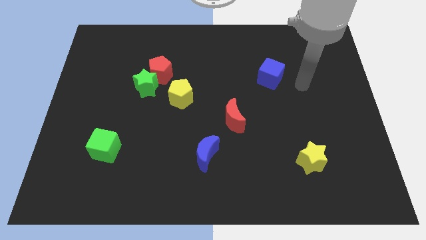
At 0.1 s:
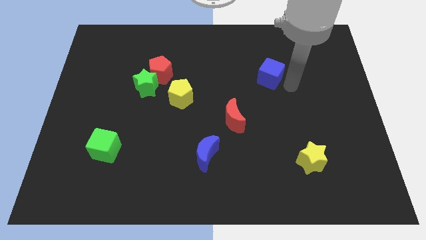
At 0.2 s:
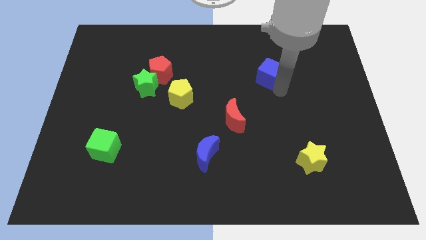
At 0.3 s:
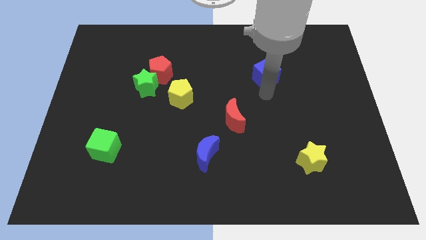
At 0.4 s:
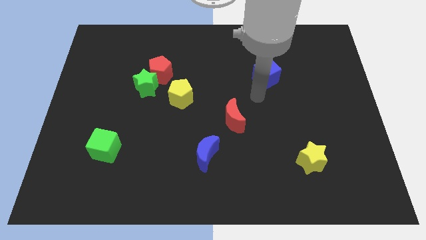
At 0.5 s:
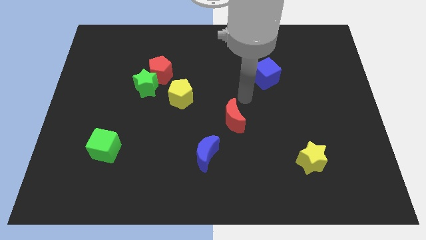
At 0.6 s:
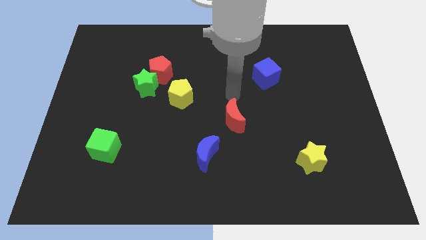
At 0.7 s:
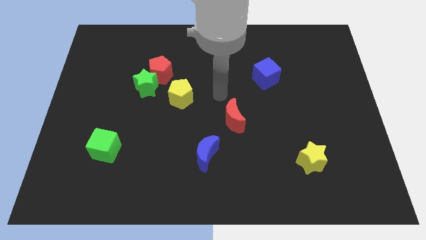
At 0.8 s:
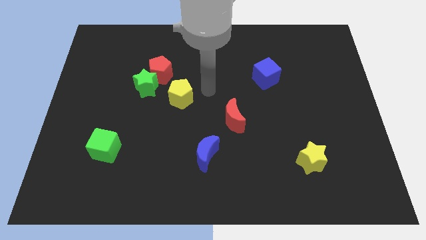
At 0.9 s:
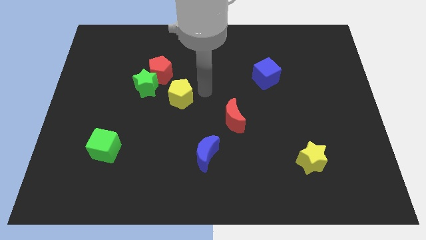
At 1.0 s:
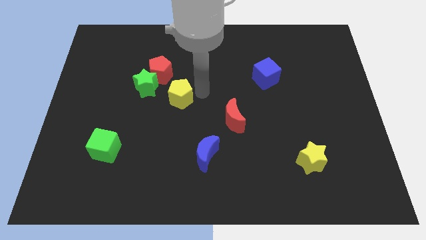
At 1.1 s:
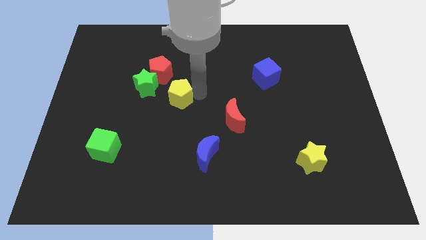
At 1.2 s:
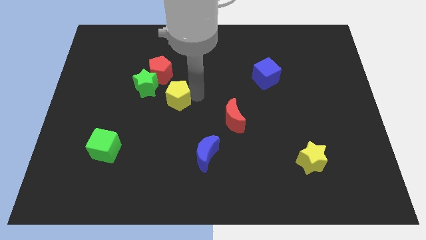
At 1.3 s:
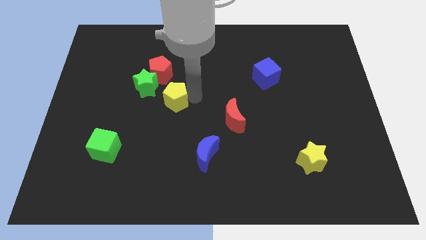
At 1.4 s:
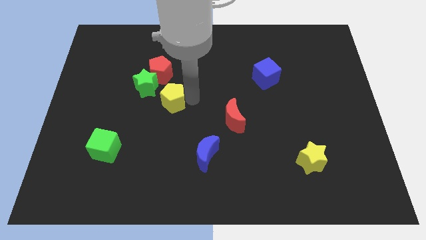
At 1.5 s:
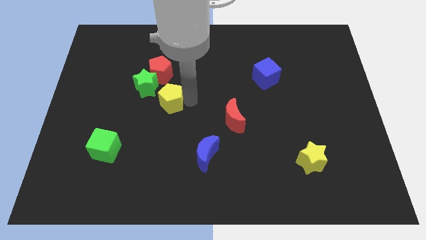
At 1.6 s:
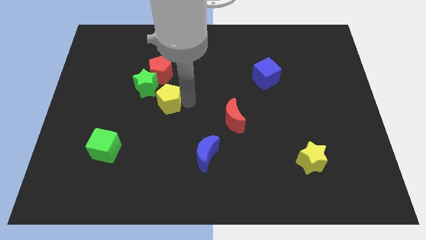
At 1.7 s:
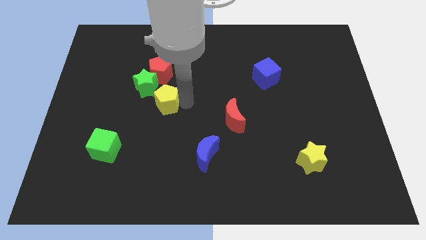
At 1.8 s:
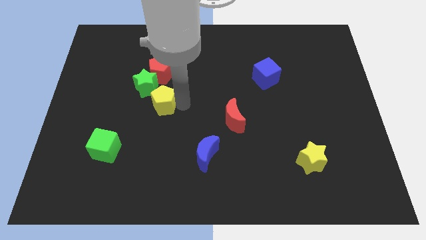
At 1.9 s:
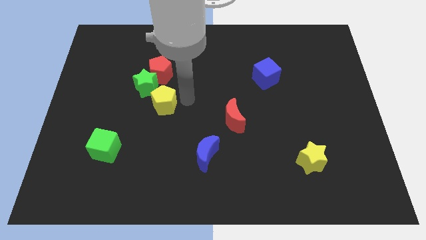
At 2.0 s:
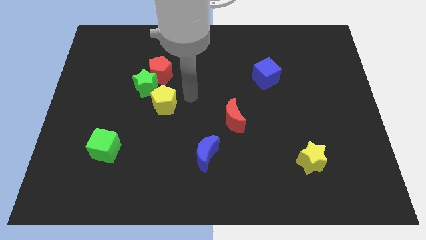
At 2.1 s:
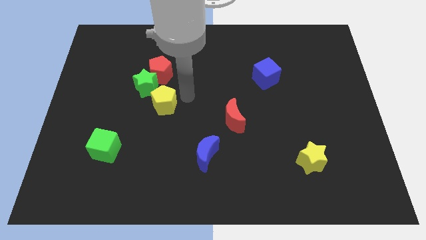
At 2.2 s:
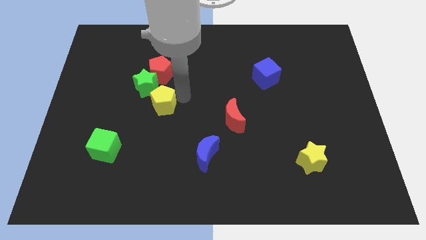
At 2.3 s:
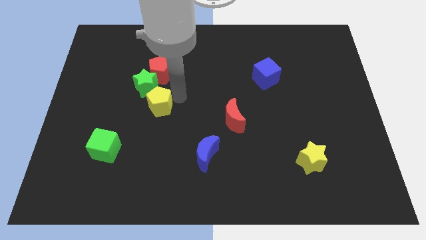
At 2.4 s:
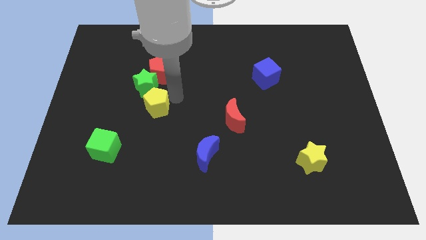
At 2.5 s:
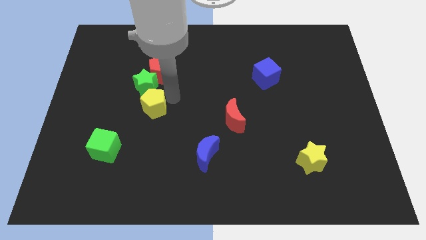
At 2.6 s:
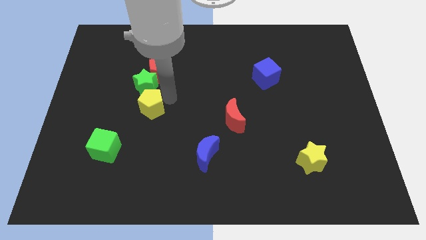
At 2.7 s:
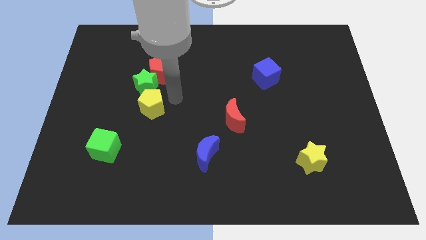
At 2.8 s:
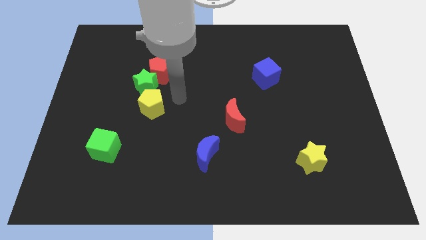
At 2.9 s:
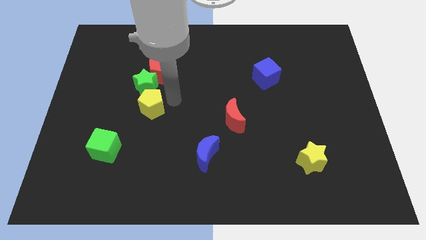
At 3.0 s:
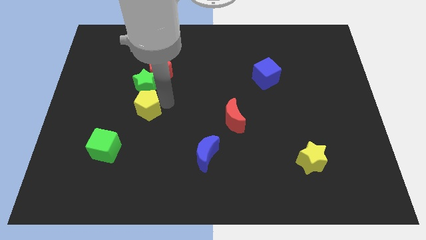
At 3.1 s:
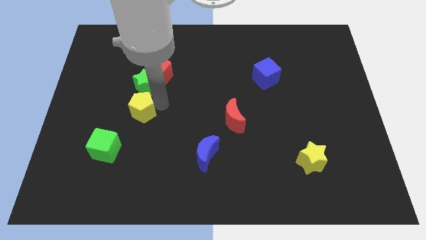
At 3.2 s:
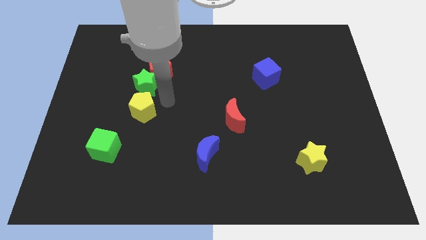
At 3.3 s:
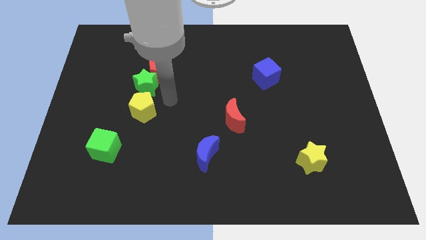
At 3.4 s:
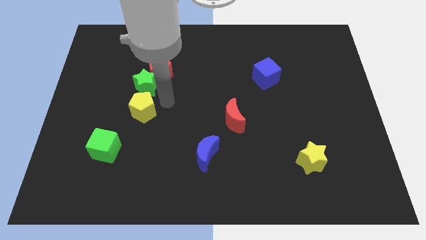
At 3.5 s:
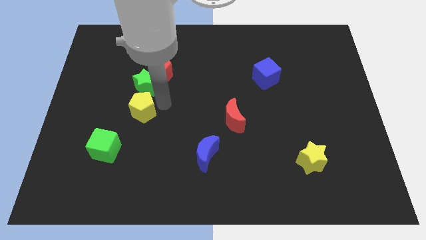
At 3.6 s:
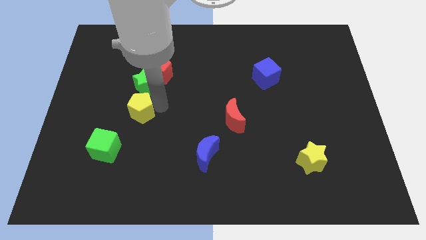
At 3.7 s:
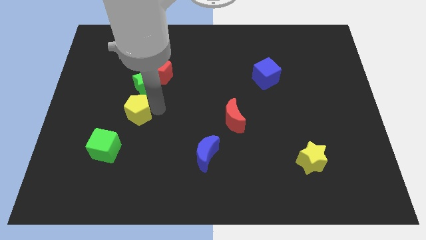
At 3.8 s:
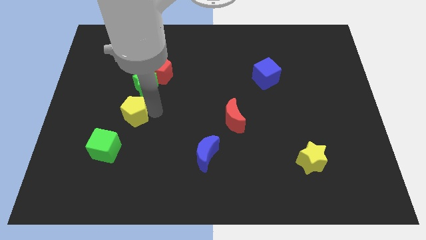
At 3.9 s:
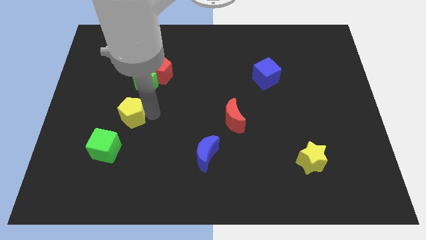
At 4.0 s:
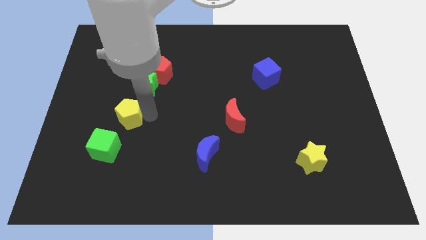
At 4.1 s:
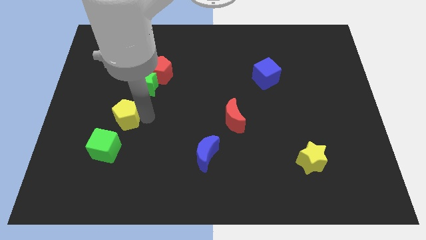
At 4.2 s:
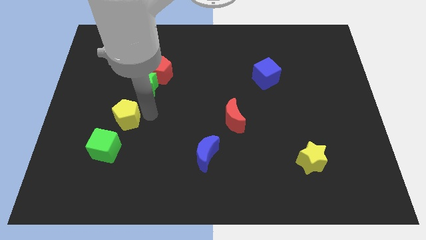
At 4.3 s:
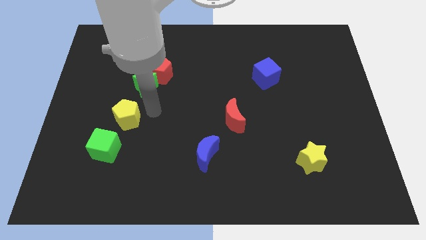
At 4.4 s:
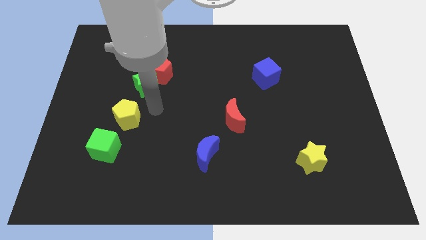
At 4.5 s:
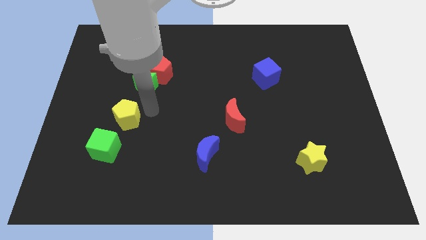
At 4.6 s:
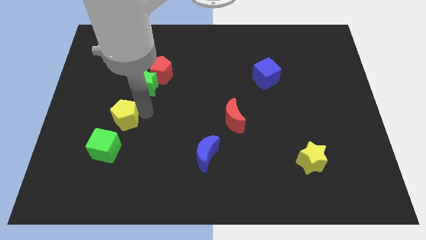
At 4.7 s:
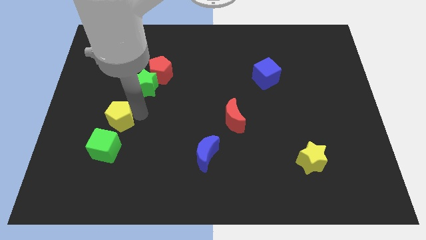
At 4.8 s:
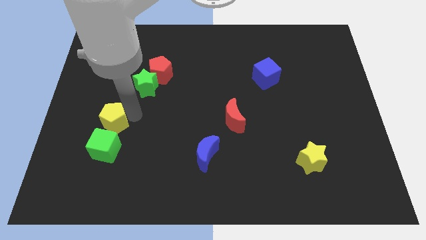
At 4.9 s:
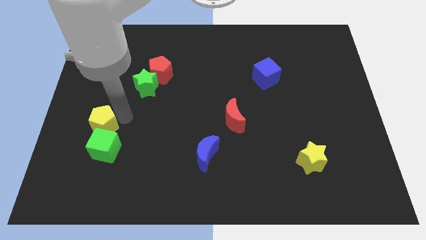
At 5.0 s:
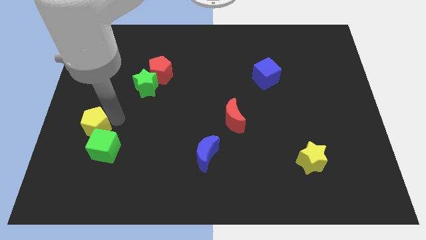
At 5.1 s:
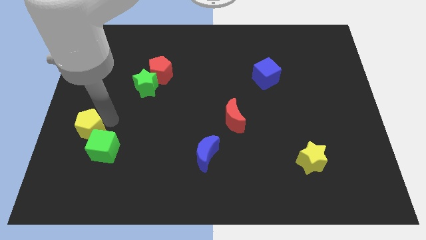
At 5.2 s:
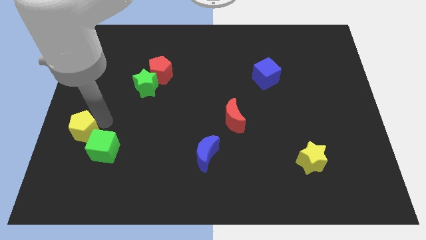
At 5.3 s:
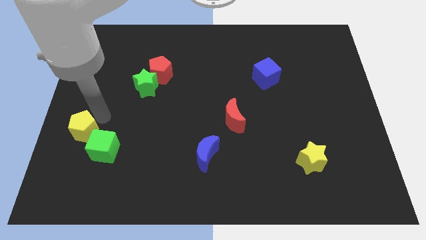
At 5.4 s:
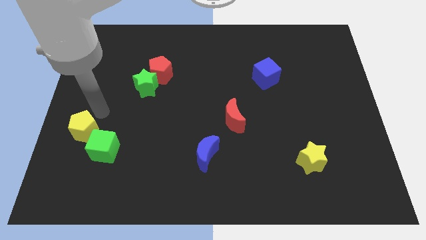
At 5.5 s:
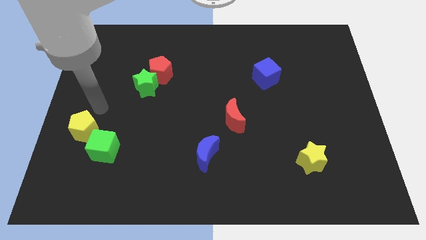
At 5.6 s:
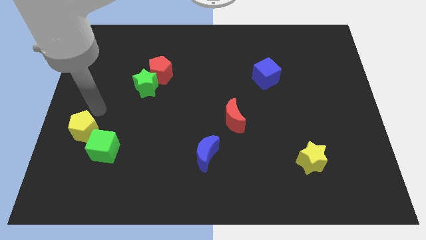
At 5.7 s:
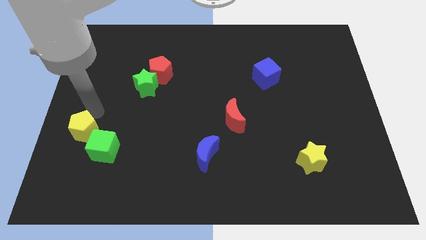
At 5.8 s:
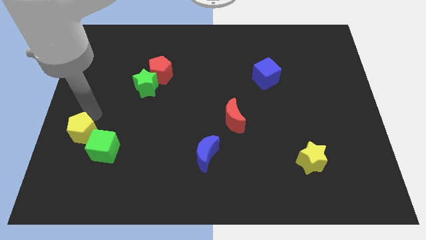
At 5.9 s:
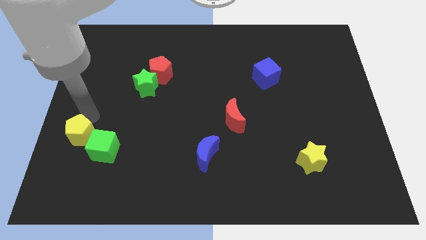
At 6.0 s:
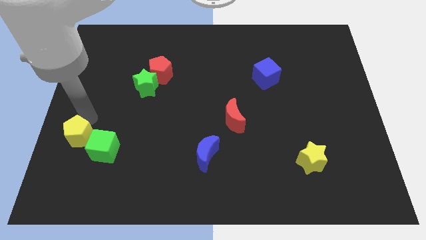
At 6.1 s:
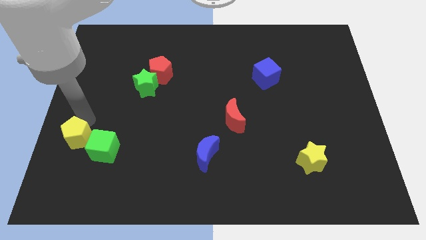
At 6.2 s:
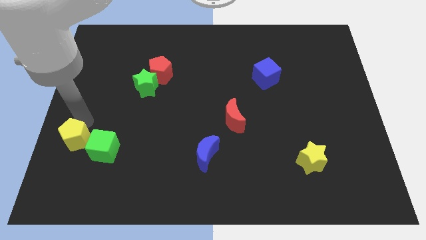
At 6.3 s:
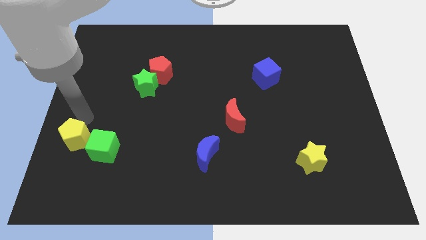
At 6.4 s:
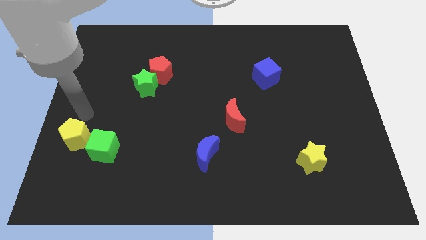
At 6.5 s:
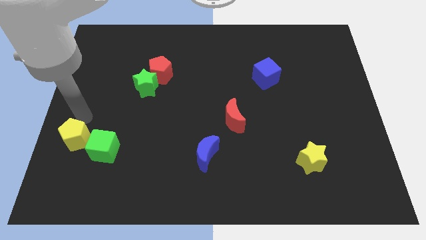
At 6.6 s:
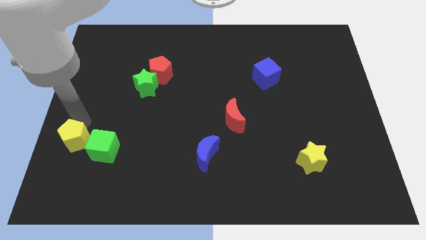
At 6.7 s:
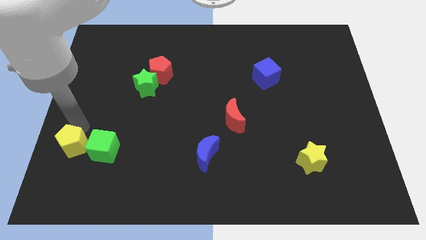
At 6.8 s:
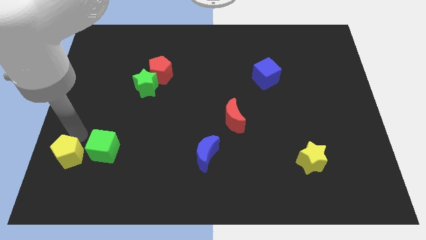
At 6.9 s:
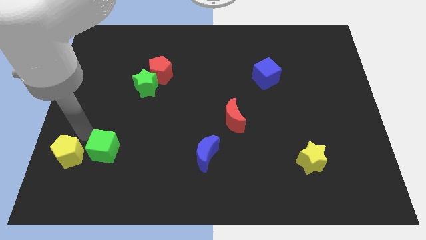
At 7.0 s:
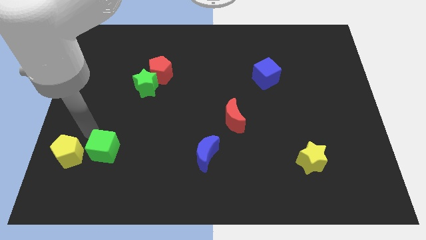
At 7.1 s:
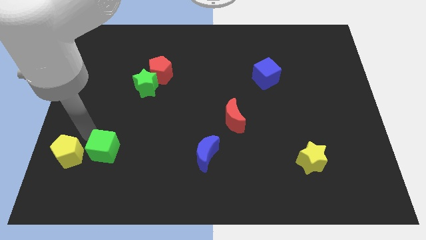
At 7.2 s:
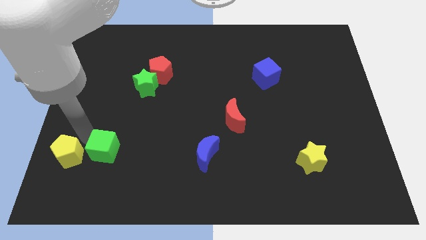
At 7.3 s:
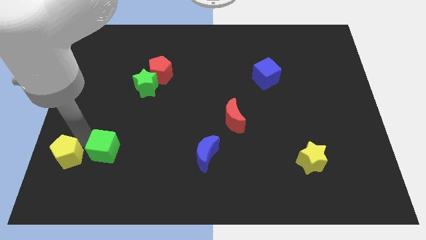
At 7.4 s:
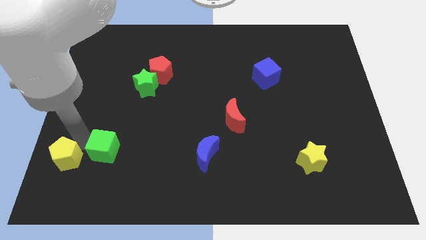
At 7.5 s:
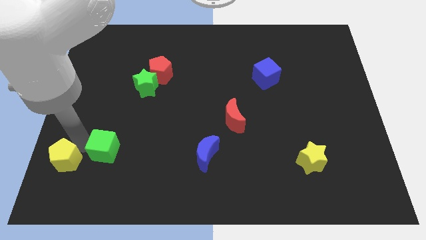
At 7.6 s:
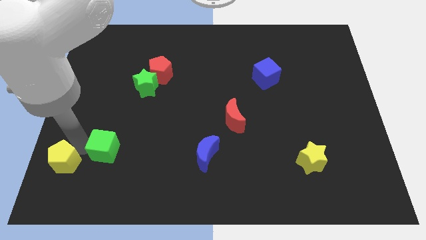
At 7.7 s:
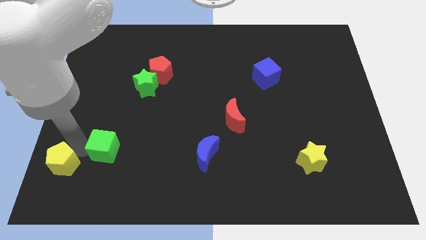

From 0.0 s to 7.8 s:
slide the yellow pentagon to the bottom left
